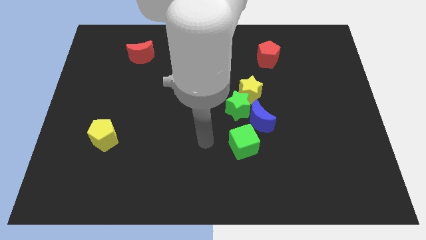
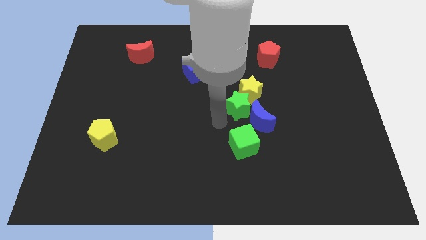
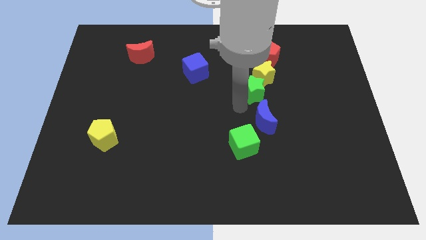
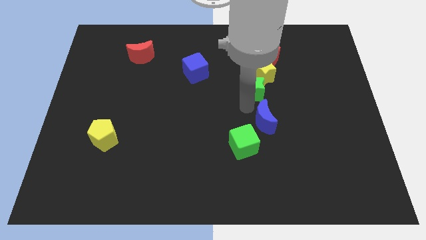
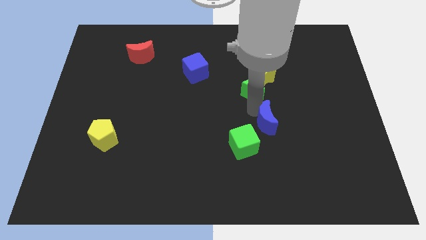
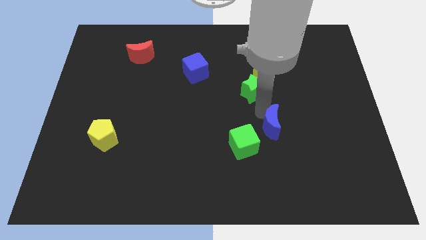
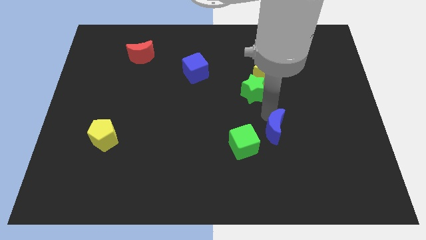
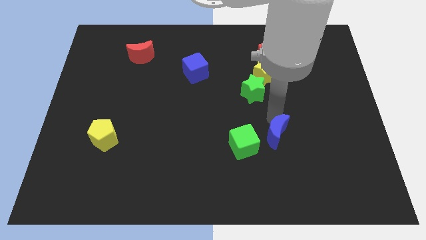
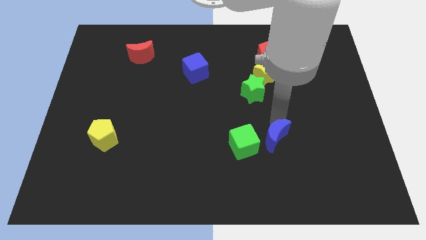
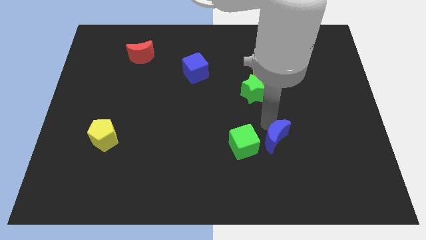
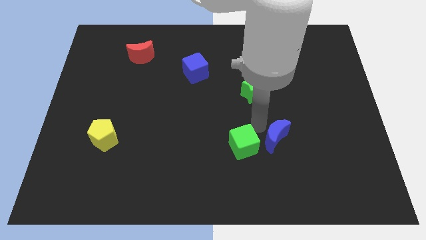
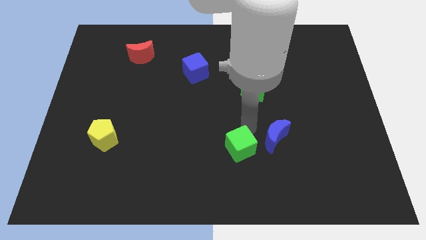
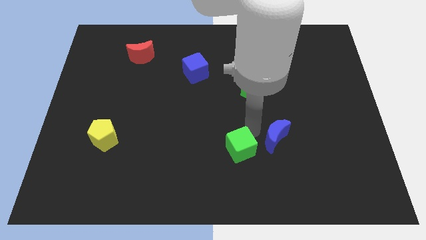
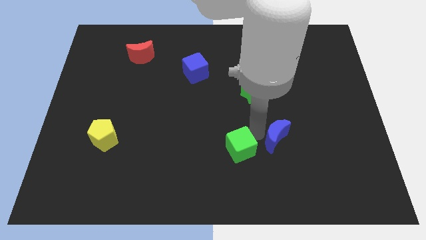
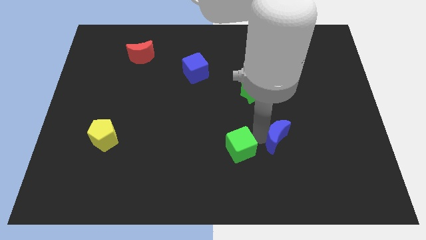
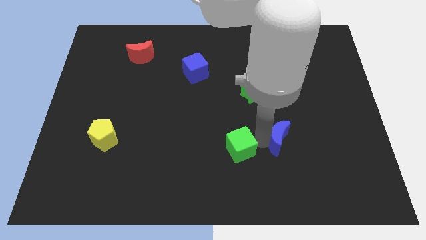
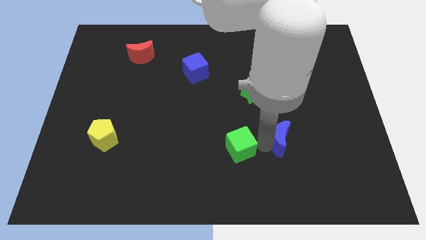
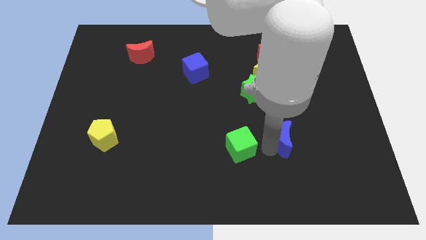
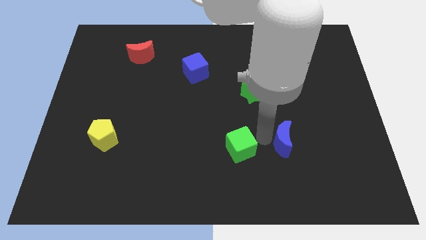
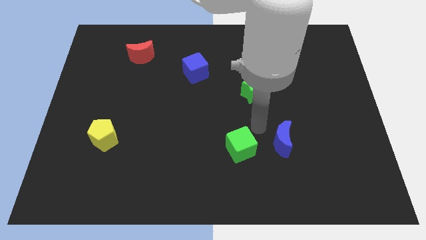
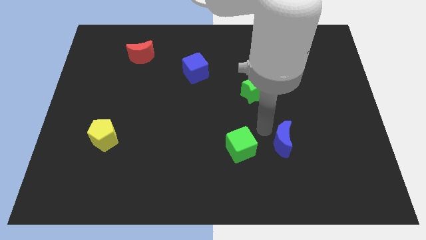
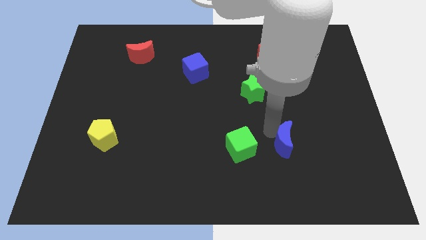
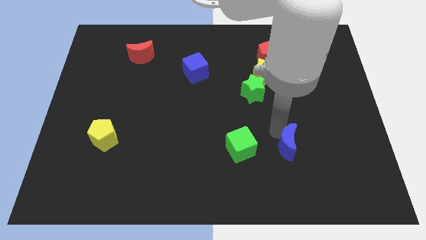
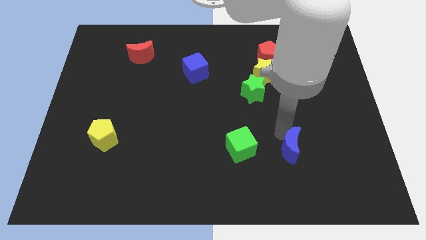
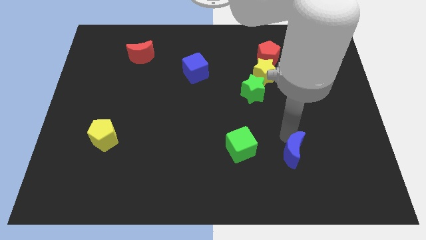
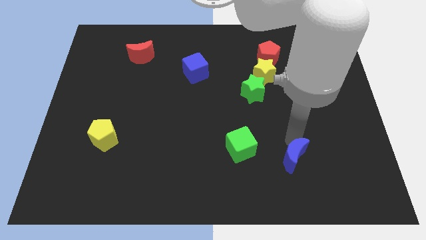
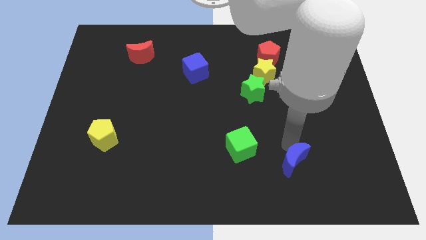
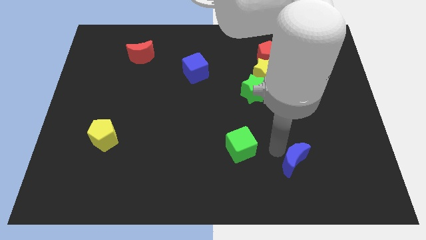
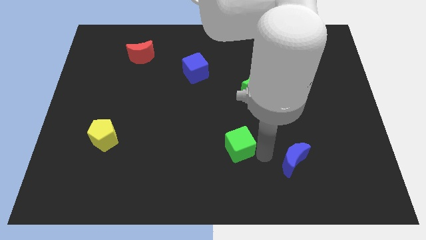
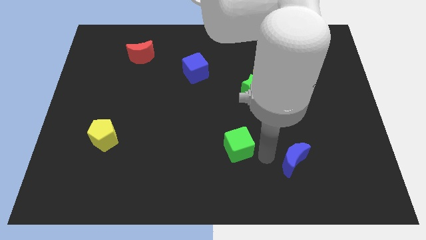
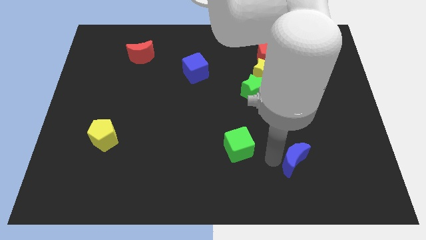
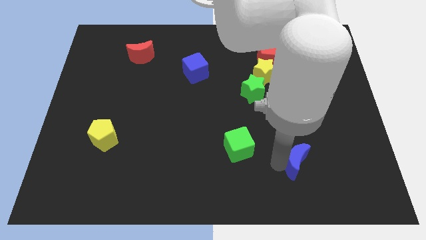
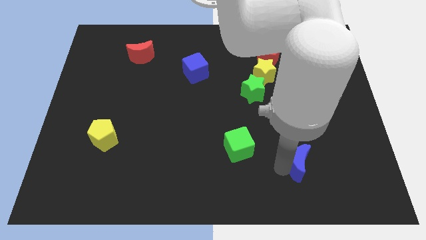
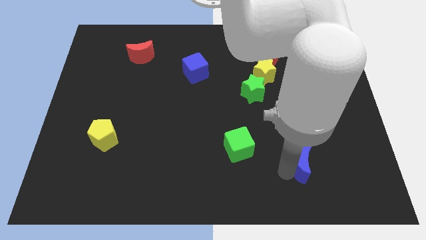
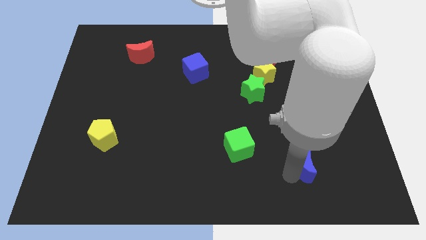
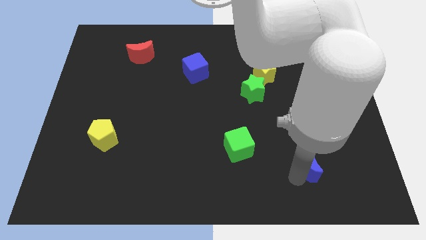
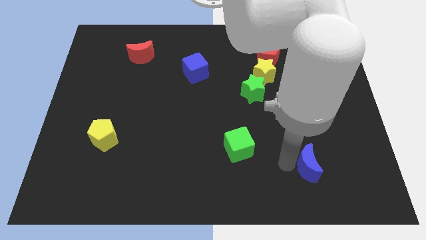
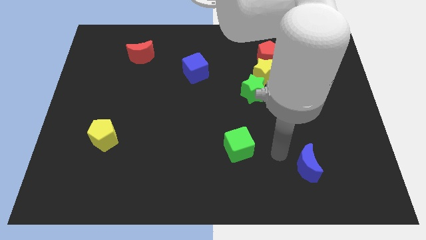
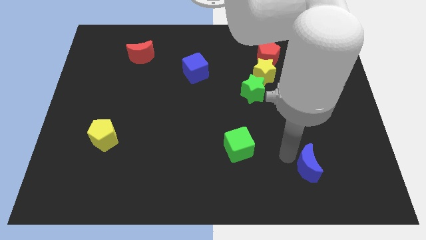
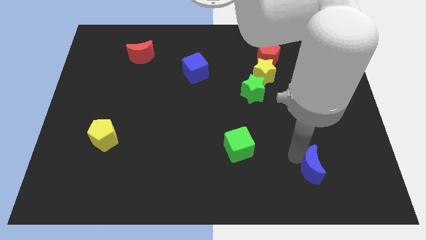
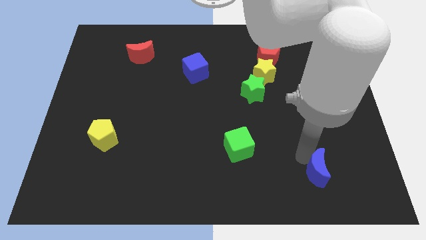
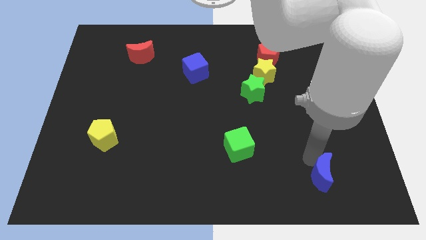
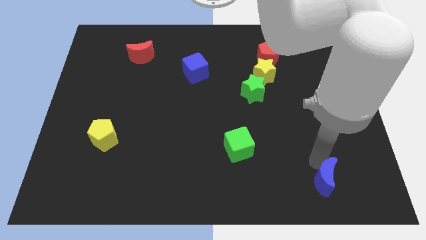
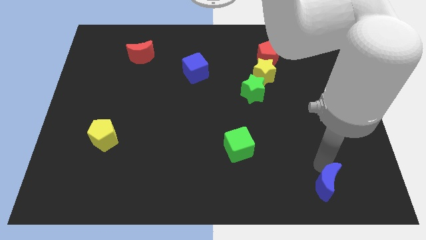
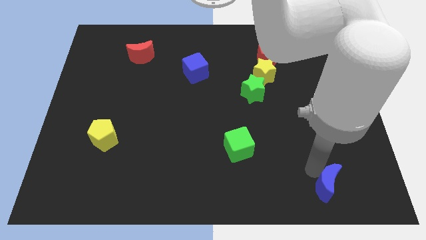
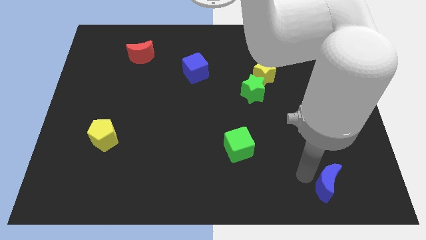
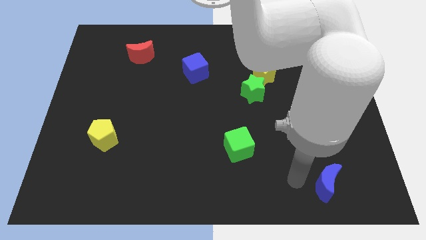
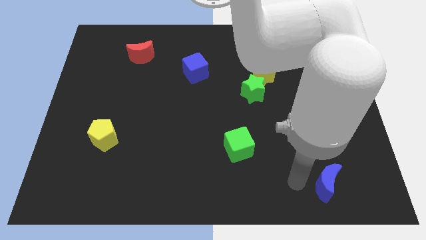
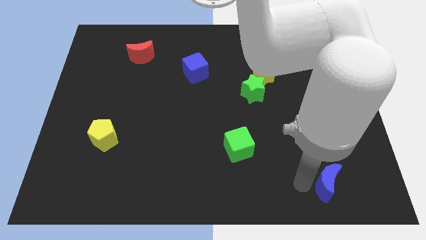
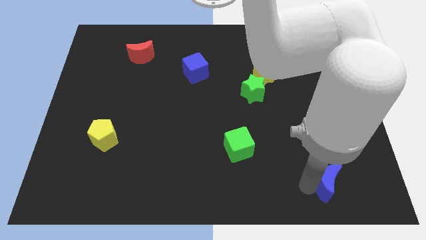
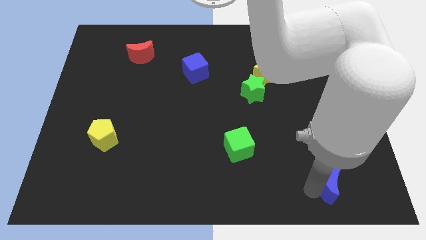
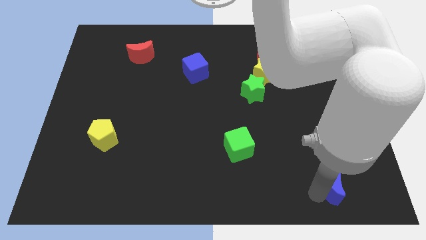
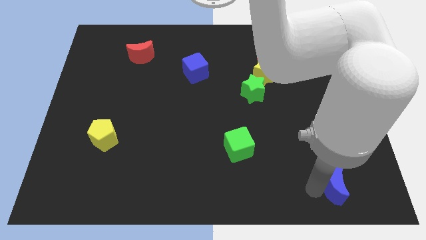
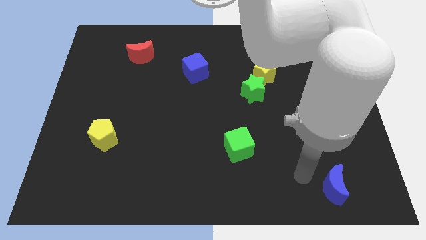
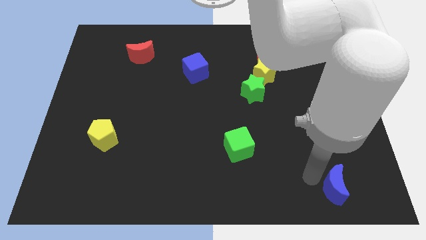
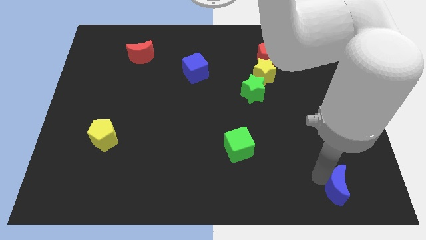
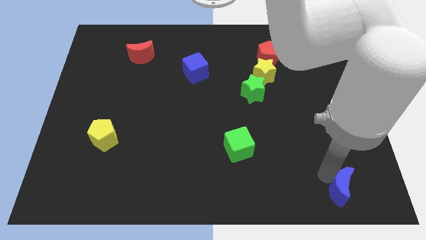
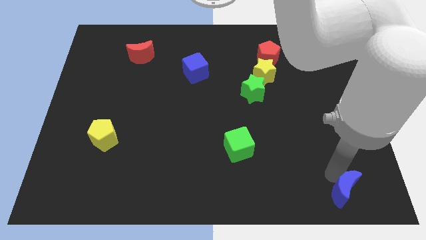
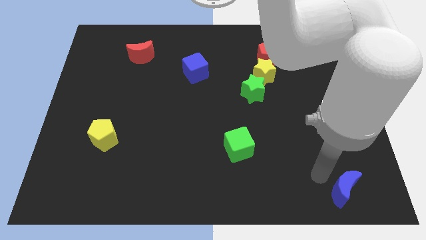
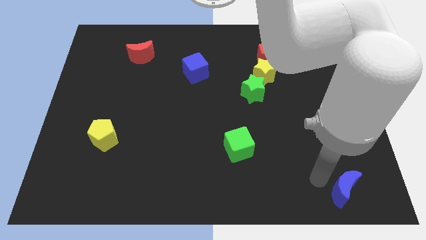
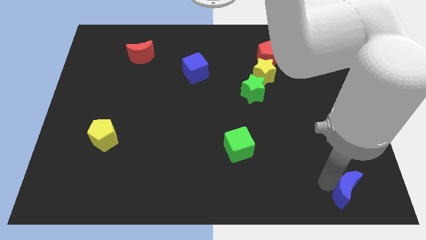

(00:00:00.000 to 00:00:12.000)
put the blue moon to the bottom right

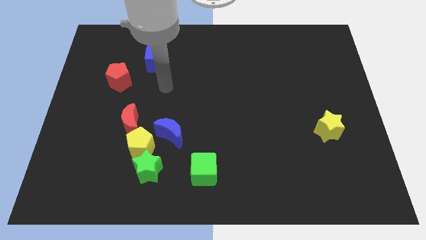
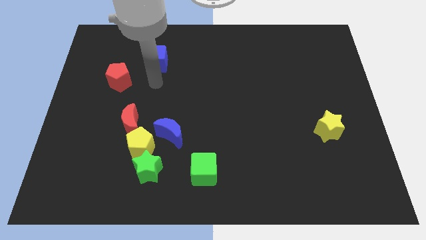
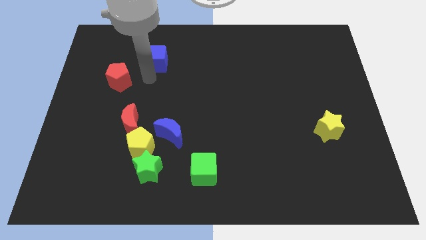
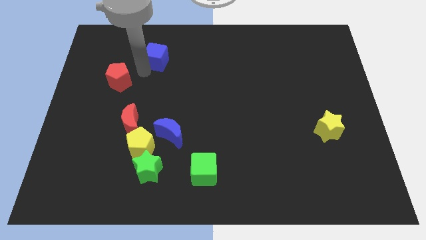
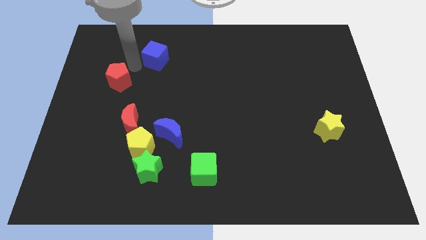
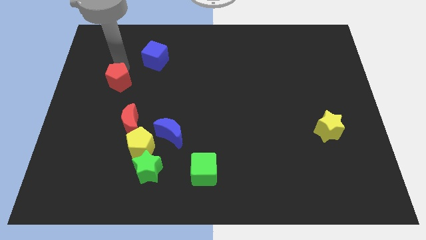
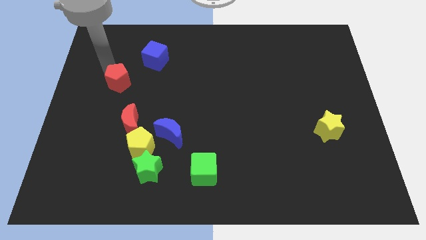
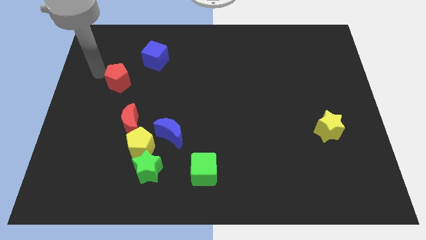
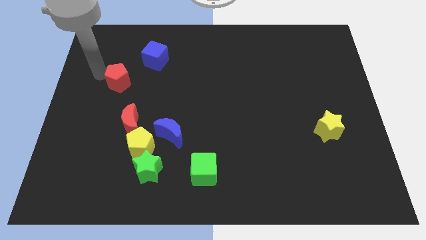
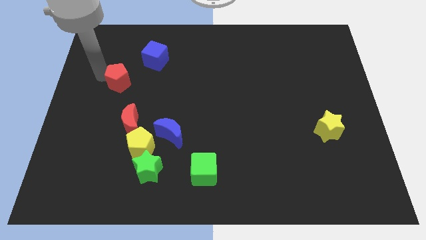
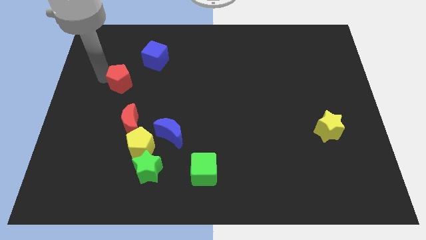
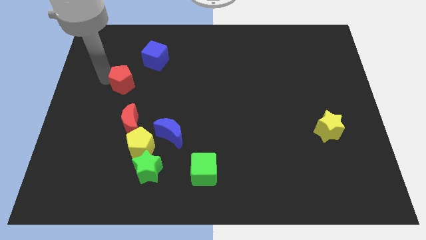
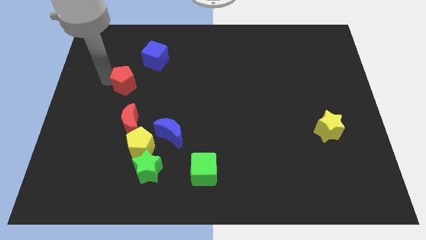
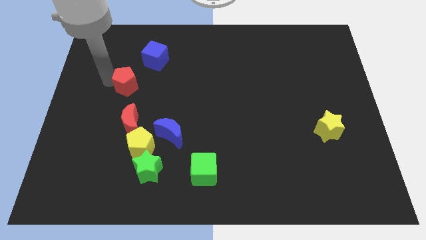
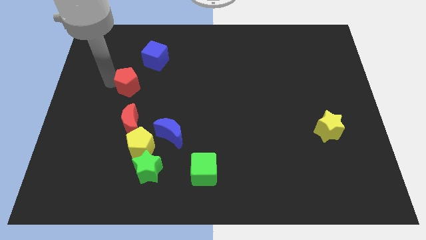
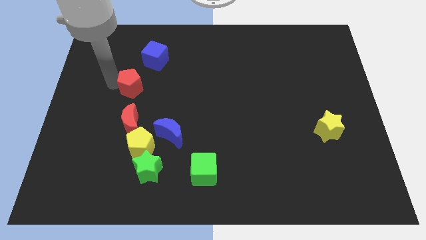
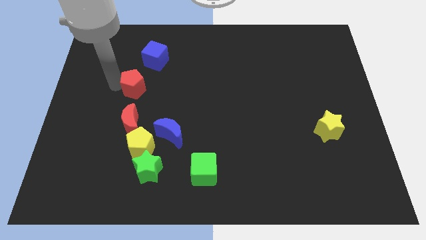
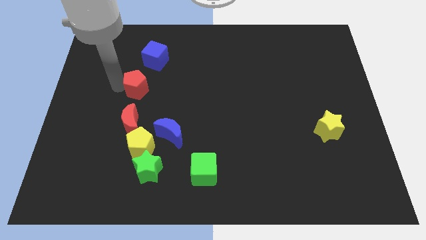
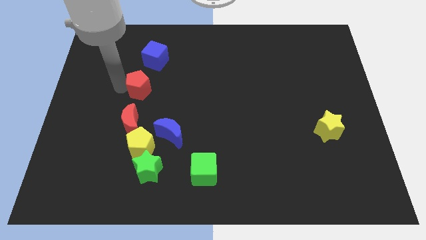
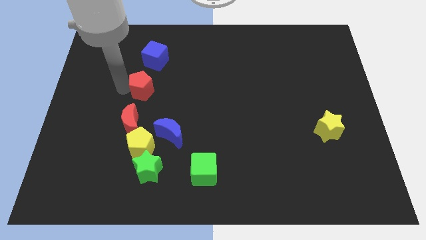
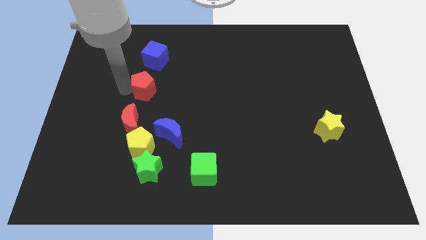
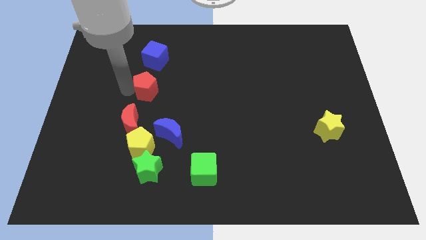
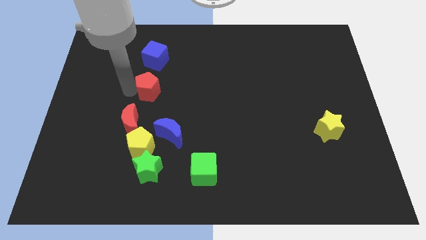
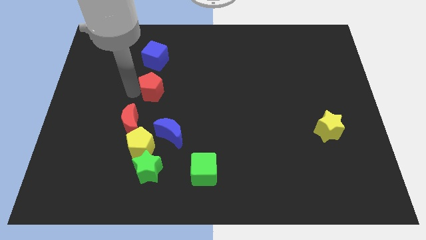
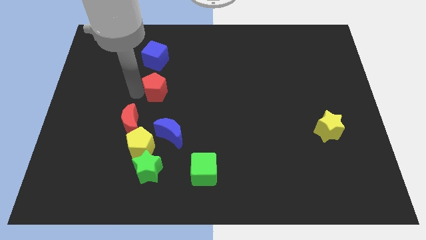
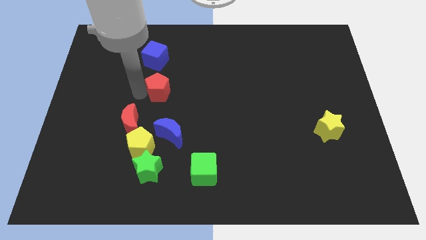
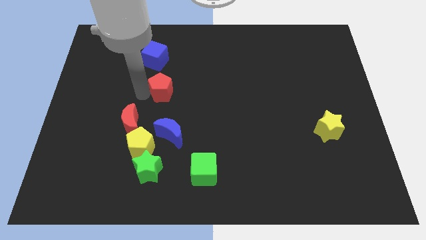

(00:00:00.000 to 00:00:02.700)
put the red pentagon to the middle of the board
